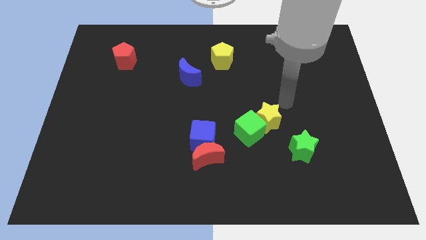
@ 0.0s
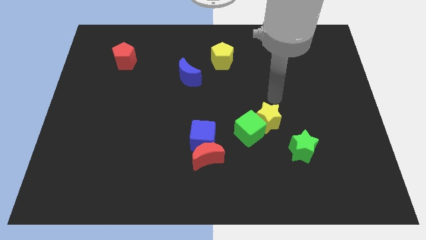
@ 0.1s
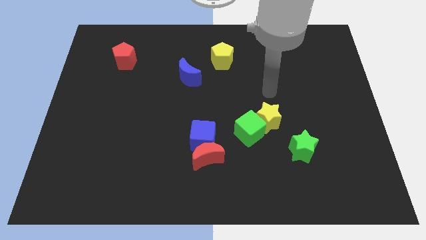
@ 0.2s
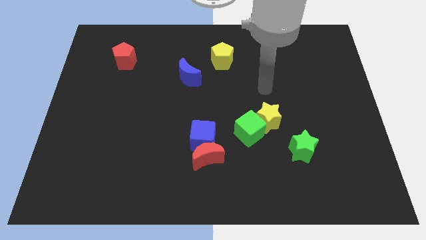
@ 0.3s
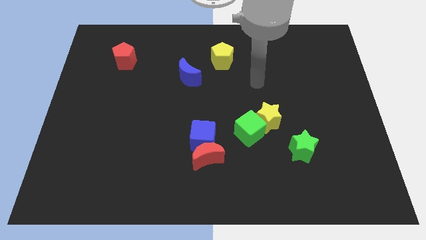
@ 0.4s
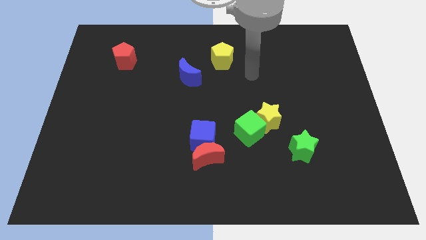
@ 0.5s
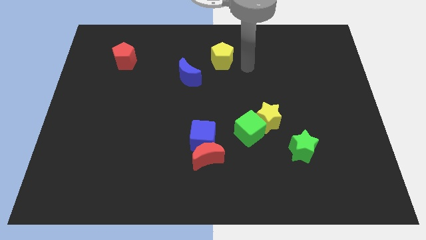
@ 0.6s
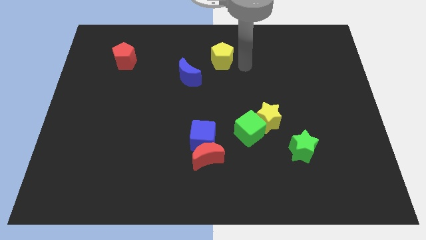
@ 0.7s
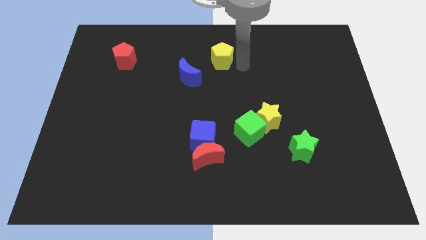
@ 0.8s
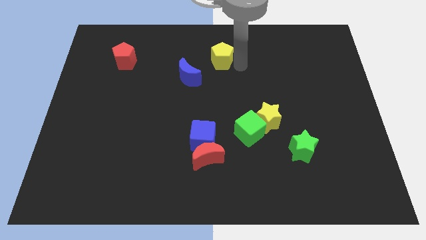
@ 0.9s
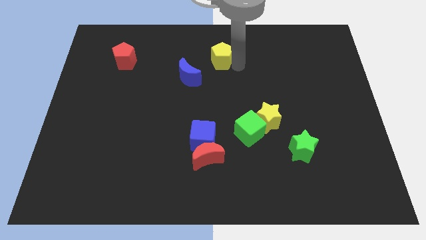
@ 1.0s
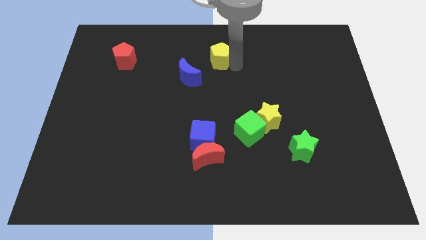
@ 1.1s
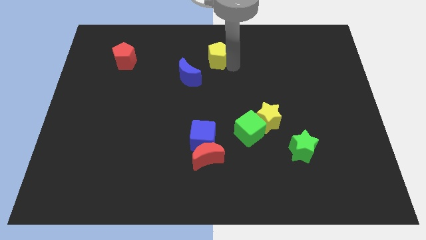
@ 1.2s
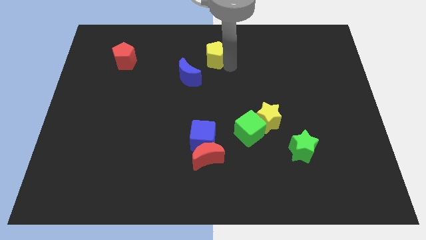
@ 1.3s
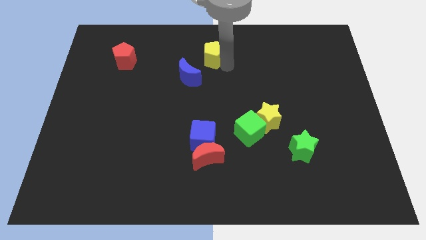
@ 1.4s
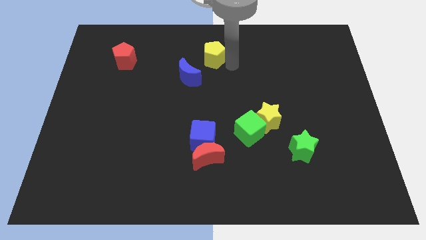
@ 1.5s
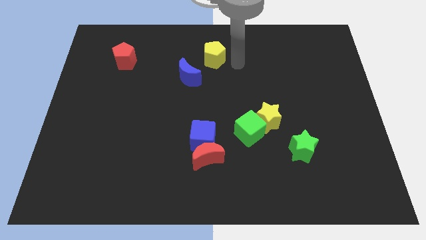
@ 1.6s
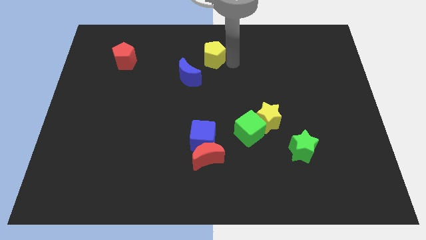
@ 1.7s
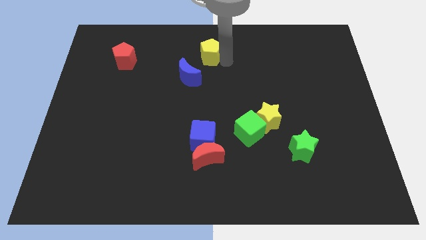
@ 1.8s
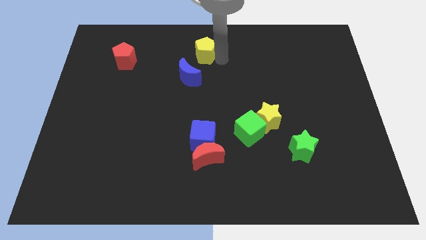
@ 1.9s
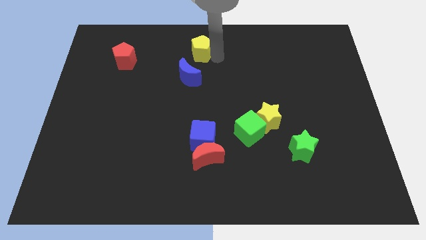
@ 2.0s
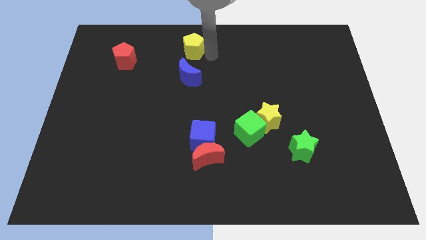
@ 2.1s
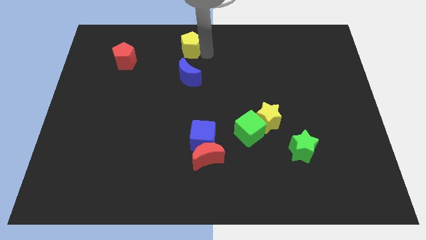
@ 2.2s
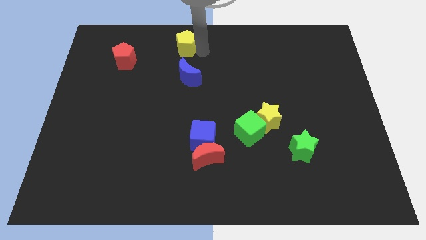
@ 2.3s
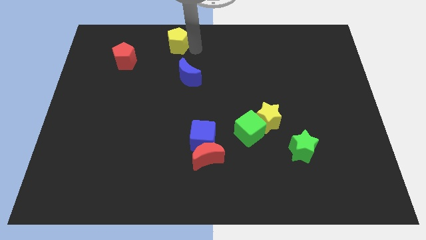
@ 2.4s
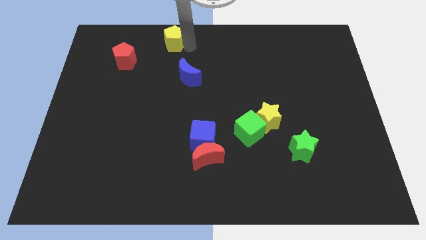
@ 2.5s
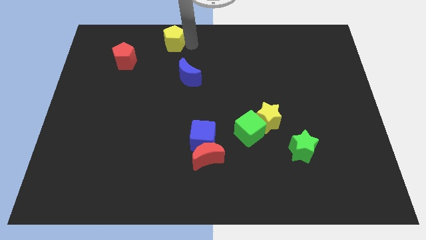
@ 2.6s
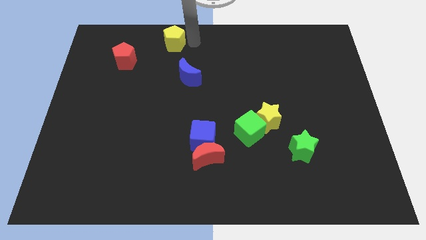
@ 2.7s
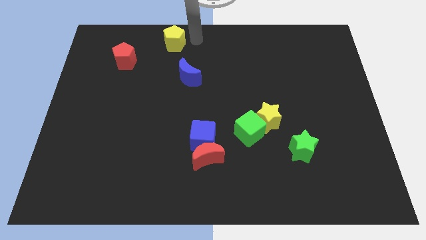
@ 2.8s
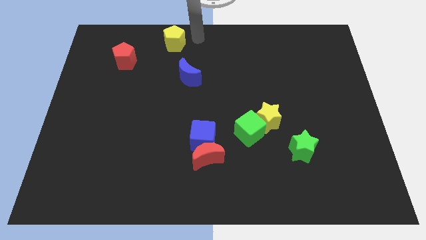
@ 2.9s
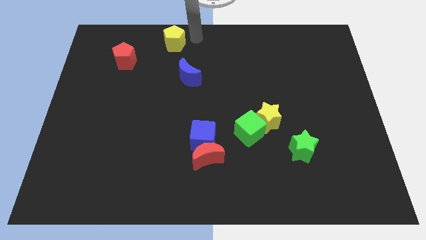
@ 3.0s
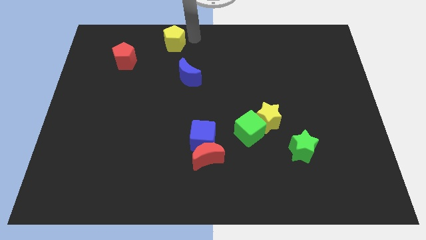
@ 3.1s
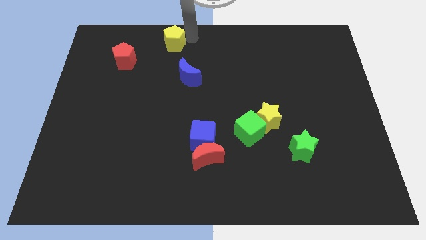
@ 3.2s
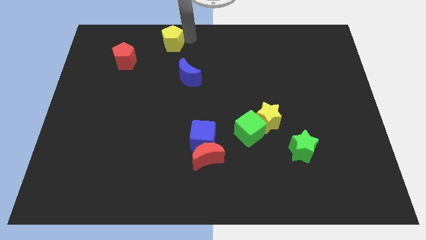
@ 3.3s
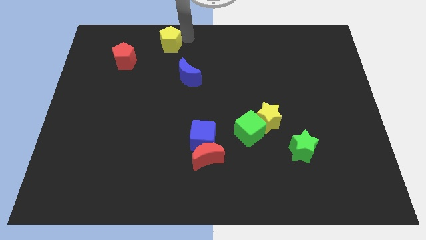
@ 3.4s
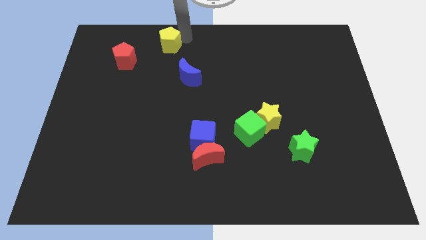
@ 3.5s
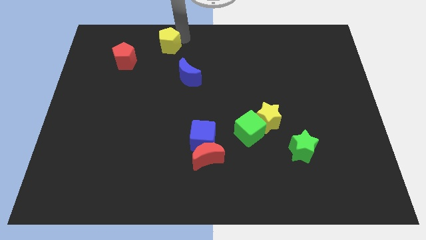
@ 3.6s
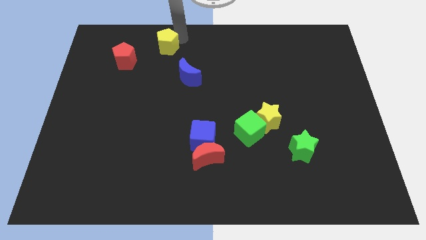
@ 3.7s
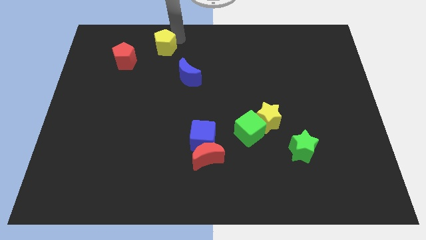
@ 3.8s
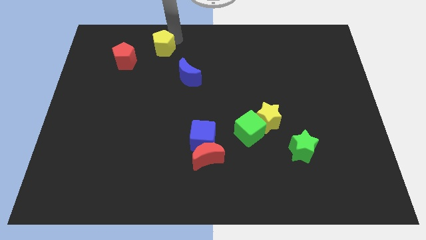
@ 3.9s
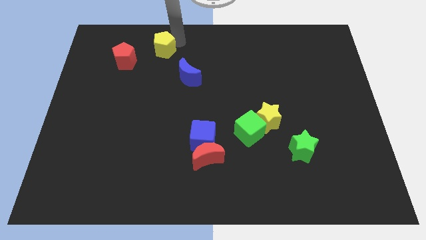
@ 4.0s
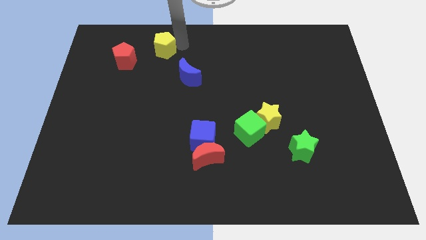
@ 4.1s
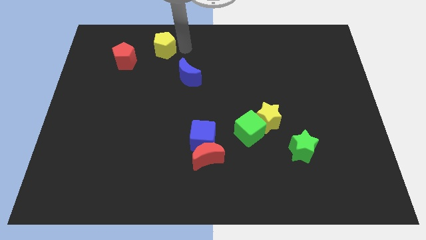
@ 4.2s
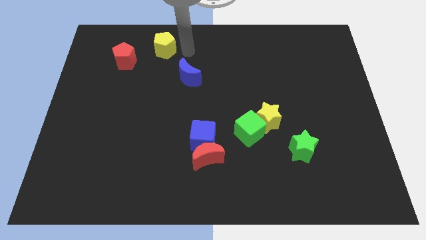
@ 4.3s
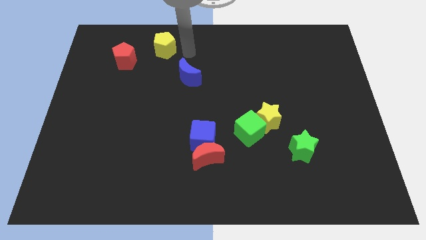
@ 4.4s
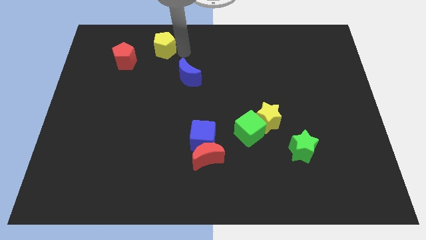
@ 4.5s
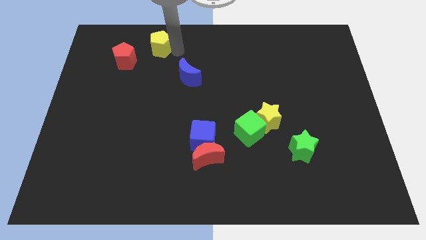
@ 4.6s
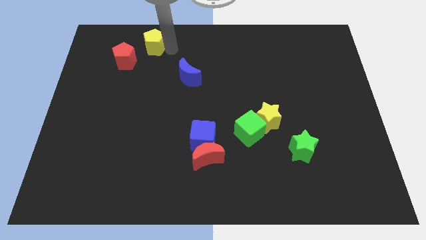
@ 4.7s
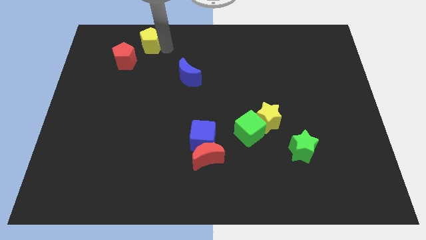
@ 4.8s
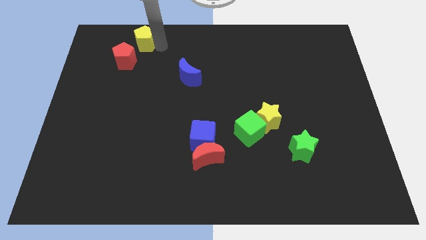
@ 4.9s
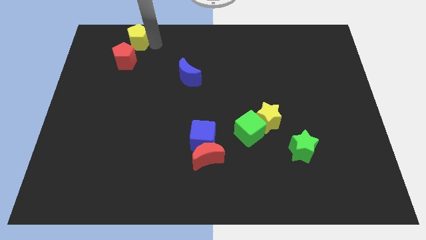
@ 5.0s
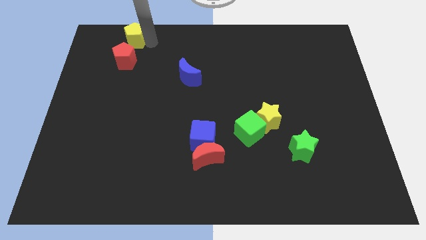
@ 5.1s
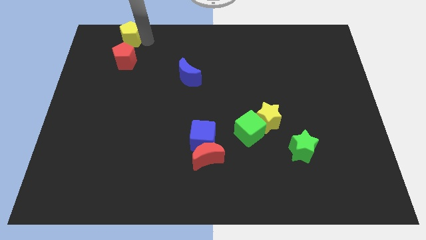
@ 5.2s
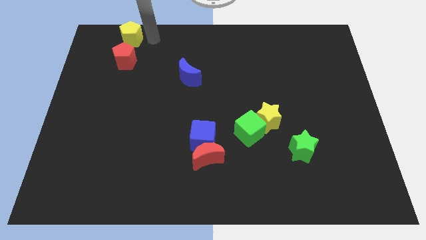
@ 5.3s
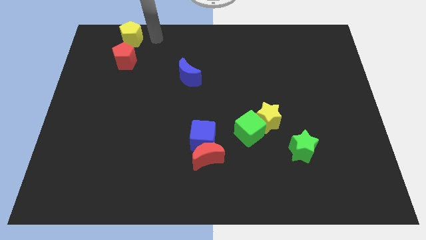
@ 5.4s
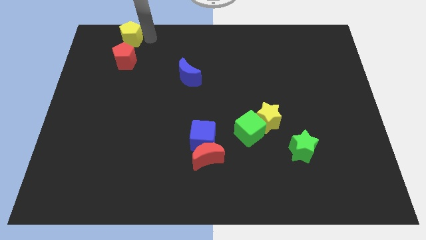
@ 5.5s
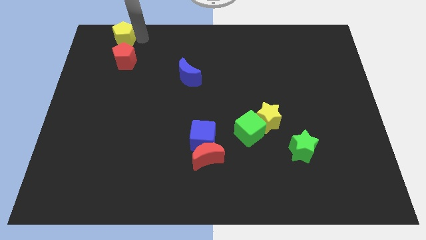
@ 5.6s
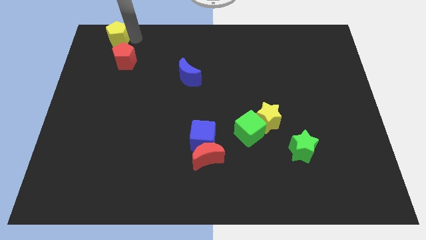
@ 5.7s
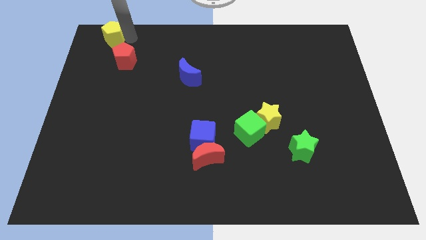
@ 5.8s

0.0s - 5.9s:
move the yellow pentagon to the top left corner

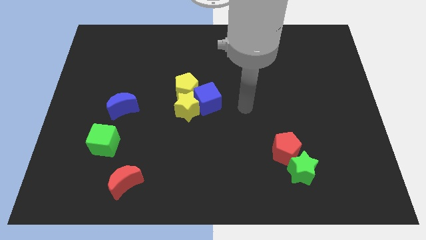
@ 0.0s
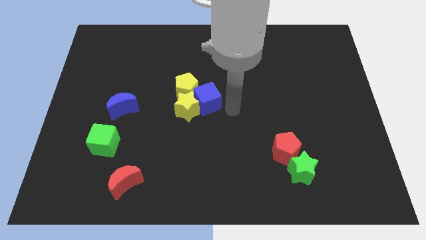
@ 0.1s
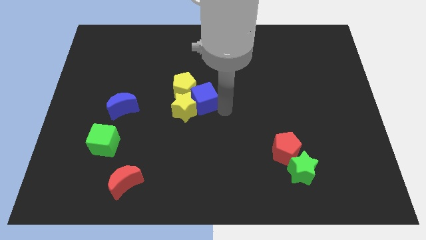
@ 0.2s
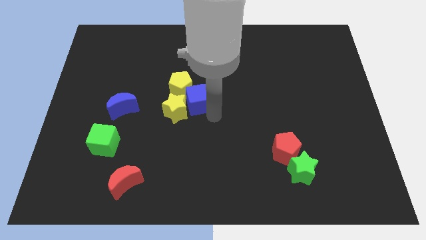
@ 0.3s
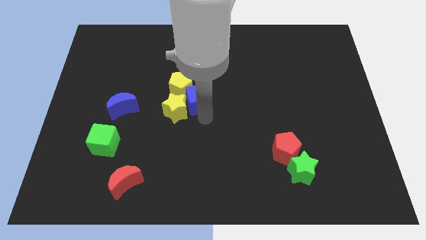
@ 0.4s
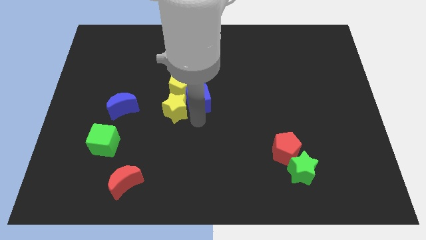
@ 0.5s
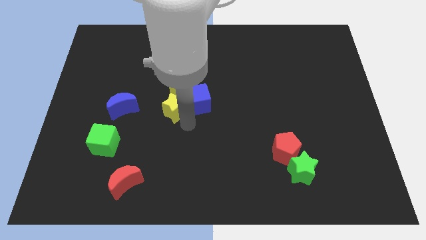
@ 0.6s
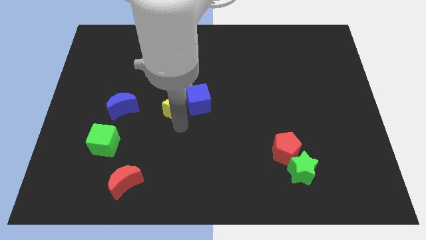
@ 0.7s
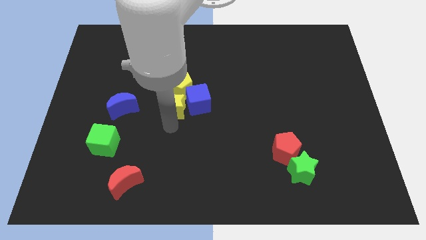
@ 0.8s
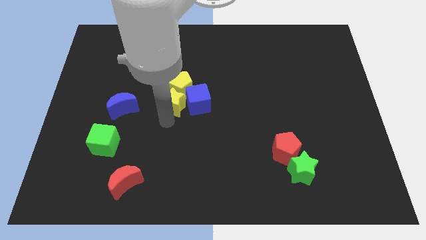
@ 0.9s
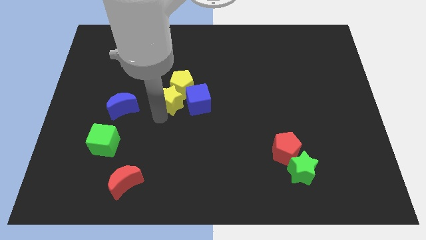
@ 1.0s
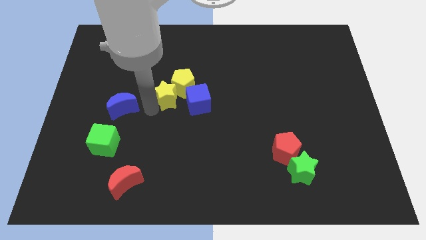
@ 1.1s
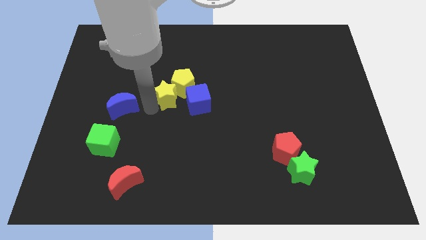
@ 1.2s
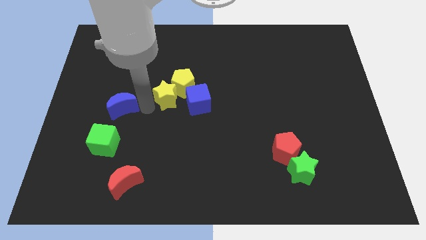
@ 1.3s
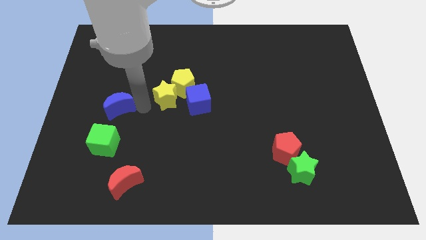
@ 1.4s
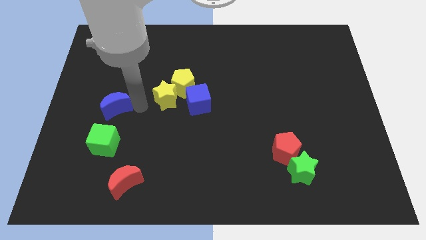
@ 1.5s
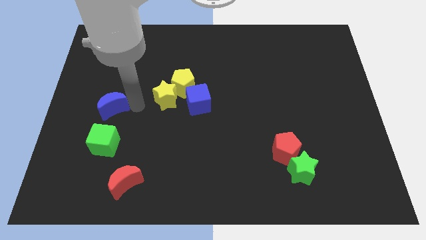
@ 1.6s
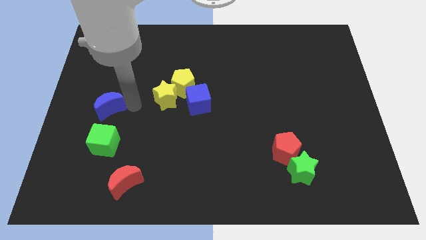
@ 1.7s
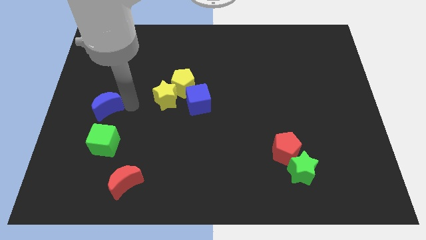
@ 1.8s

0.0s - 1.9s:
move the blue moon to the left side of the board
